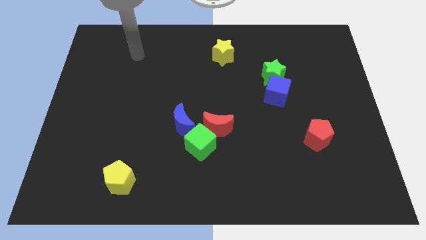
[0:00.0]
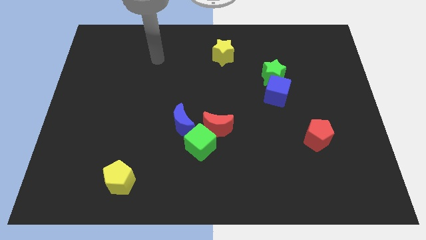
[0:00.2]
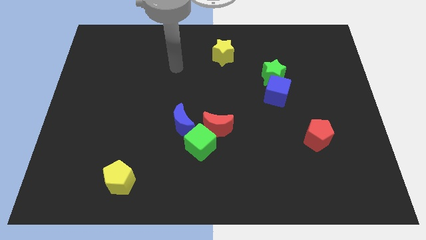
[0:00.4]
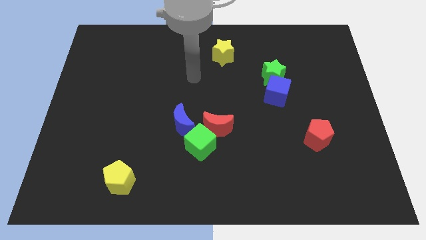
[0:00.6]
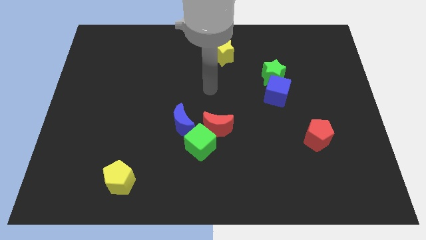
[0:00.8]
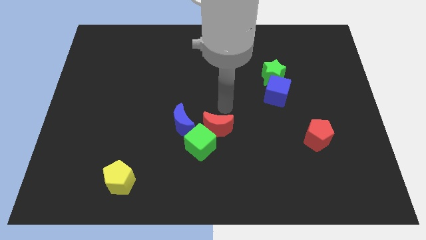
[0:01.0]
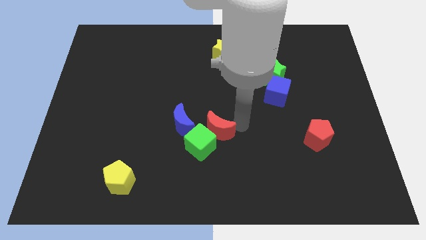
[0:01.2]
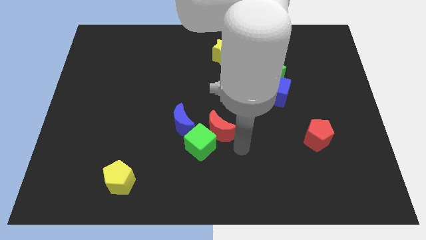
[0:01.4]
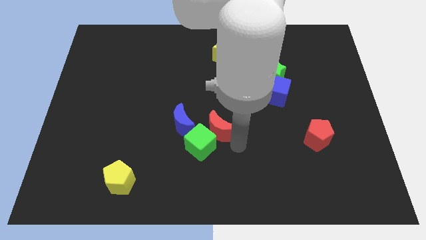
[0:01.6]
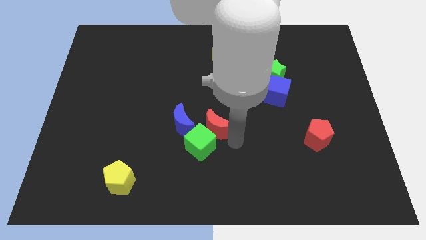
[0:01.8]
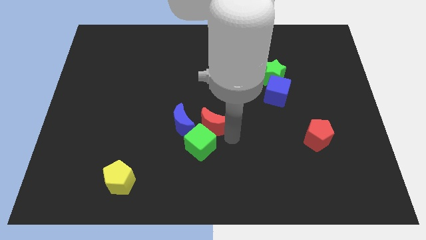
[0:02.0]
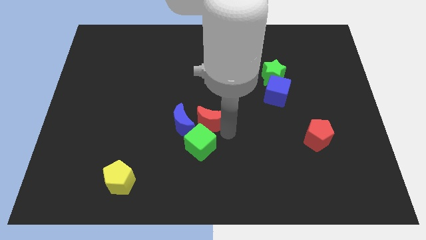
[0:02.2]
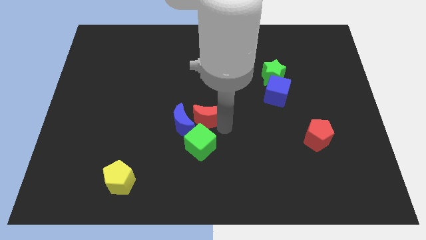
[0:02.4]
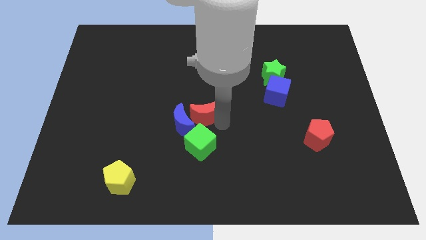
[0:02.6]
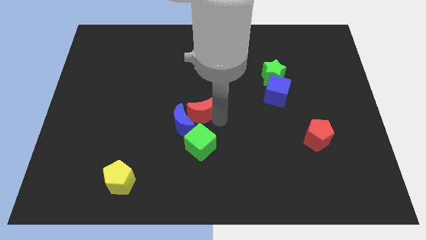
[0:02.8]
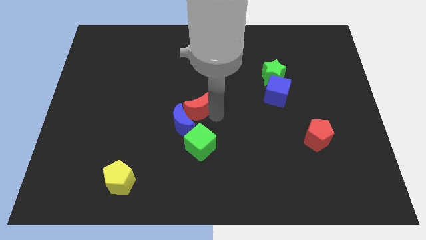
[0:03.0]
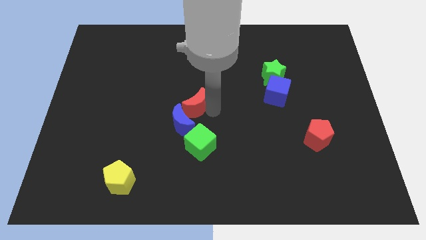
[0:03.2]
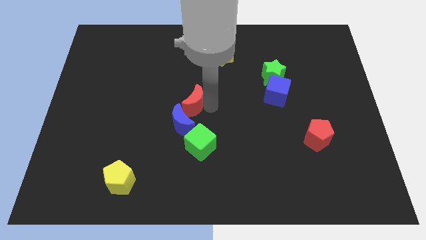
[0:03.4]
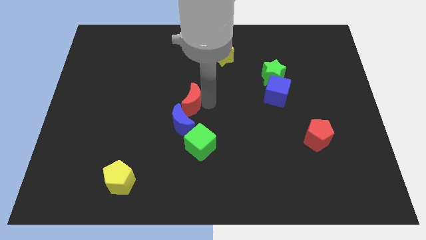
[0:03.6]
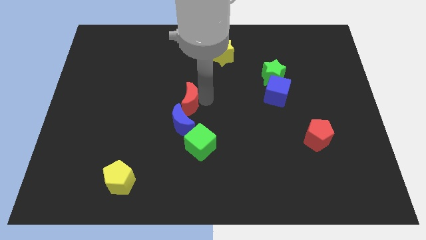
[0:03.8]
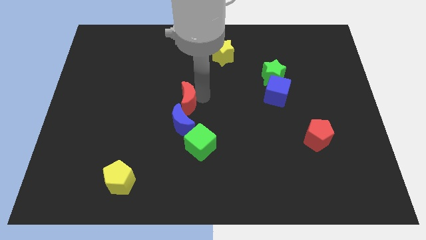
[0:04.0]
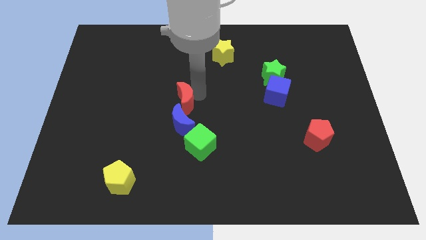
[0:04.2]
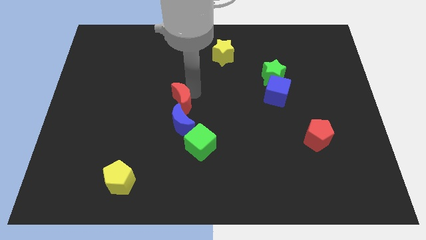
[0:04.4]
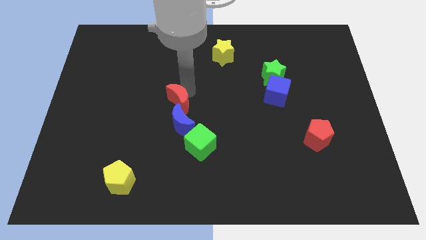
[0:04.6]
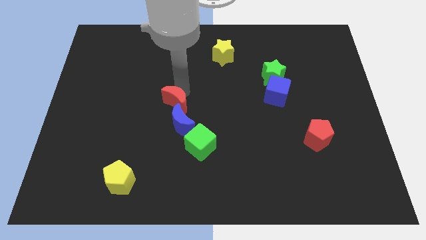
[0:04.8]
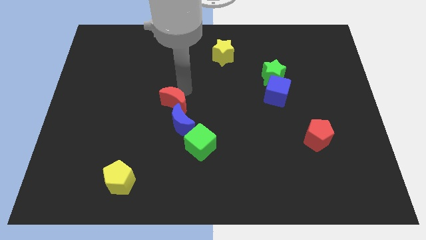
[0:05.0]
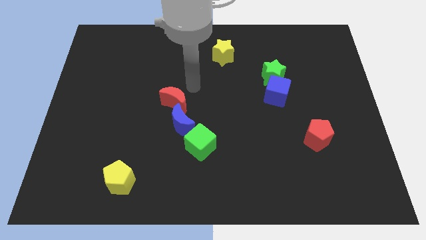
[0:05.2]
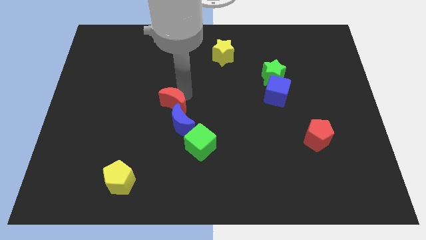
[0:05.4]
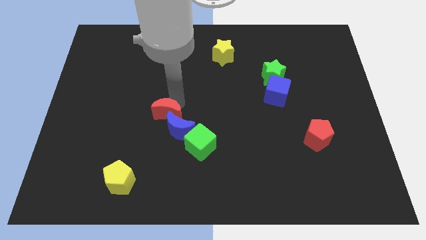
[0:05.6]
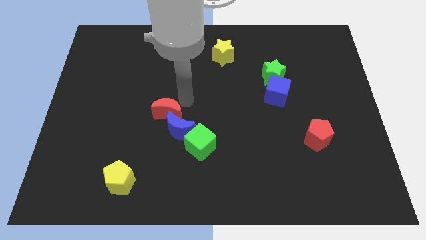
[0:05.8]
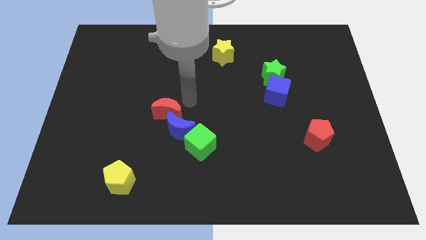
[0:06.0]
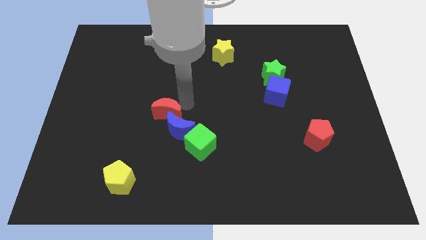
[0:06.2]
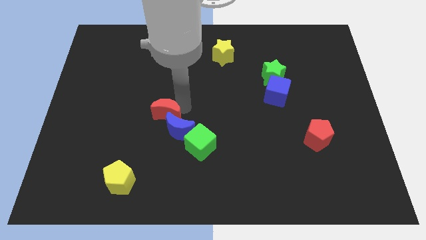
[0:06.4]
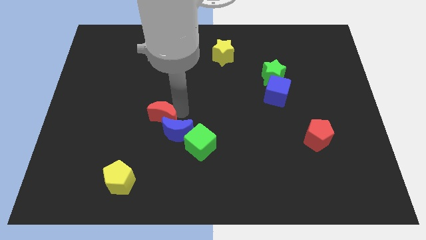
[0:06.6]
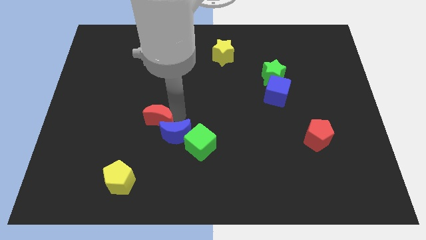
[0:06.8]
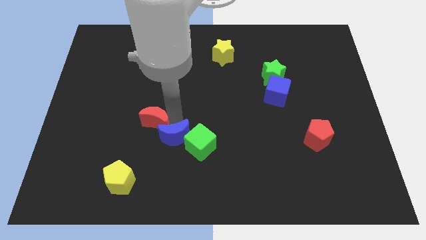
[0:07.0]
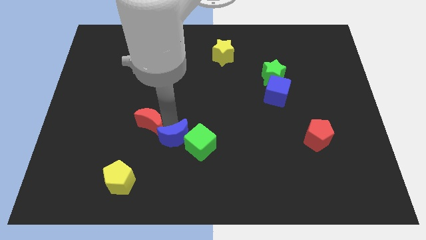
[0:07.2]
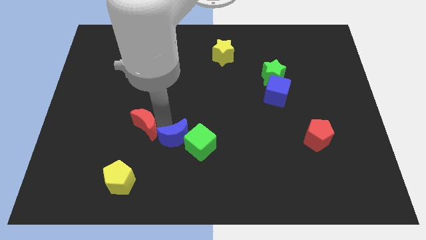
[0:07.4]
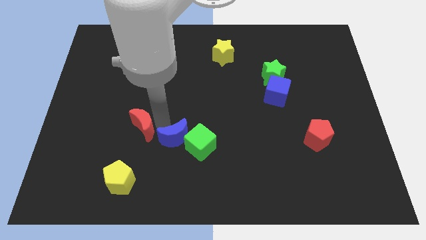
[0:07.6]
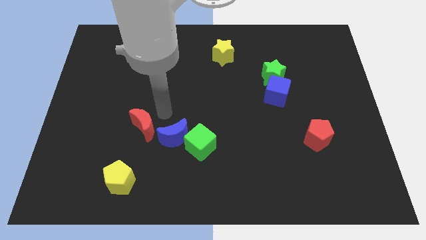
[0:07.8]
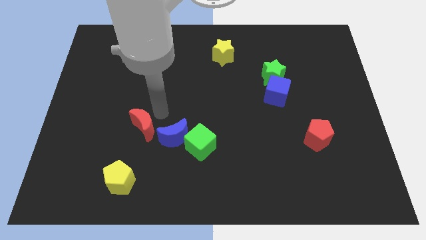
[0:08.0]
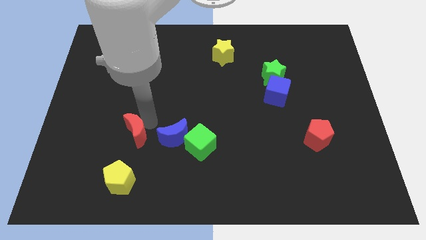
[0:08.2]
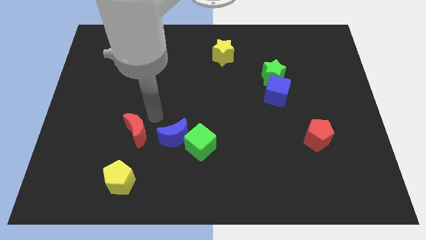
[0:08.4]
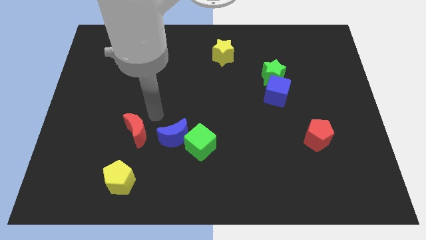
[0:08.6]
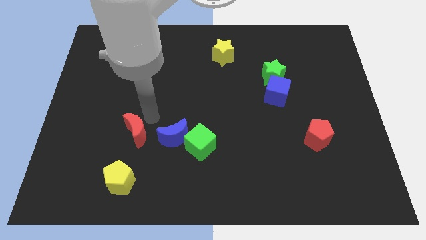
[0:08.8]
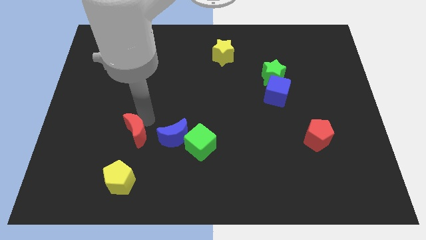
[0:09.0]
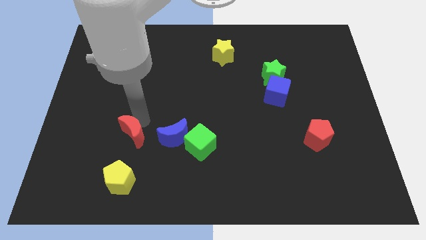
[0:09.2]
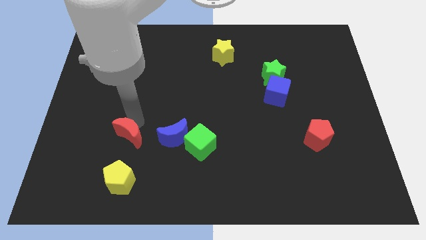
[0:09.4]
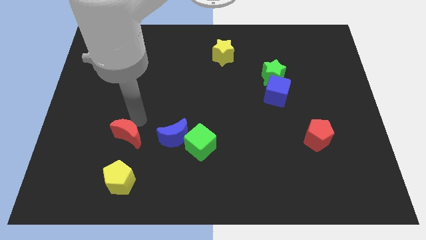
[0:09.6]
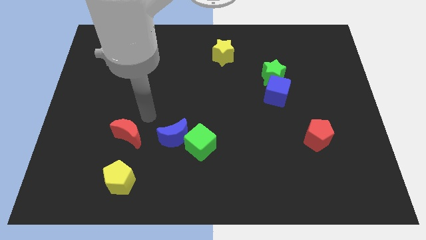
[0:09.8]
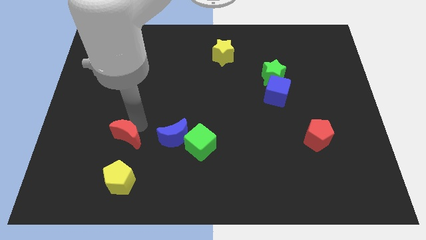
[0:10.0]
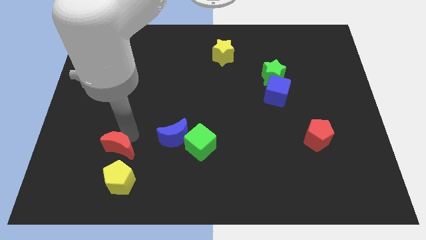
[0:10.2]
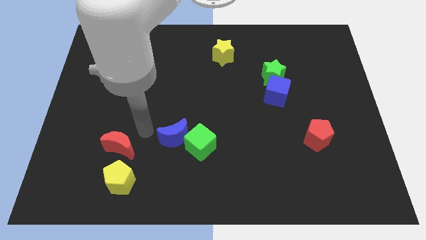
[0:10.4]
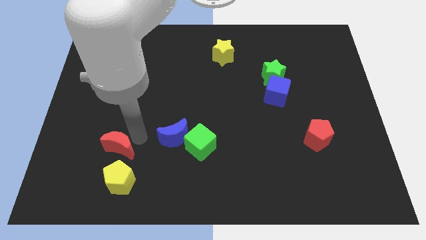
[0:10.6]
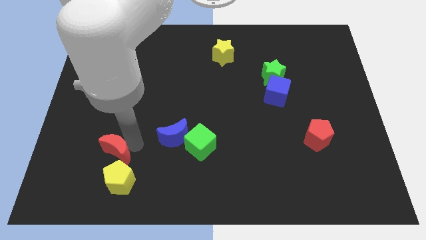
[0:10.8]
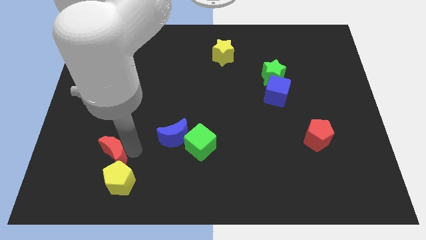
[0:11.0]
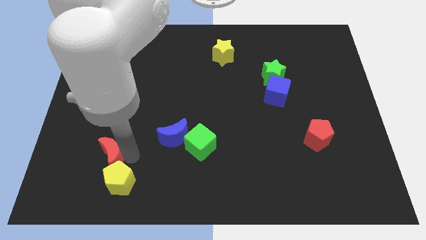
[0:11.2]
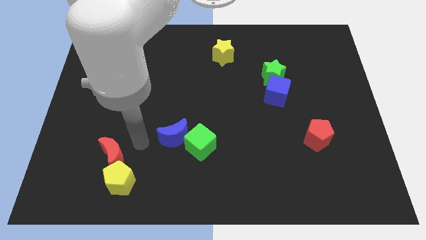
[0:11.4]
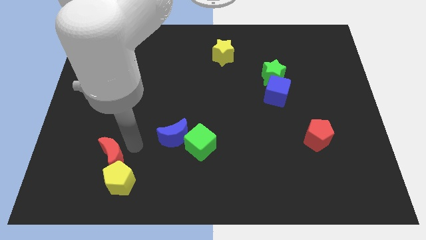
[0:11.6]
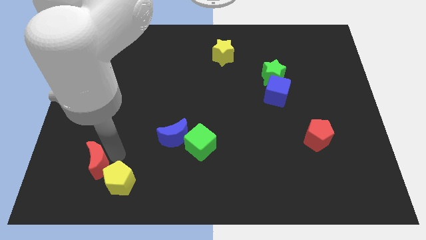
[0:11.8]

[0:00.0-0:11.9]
put the red moon to the left side of the yellow pentagon
